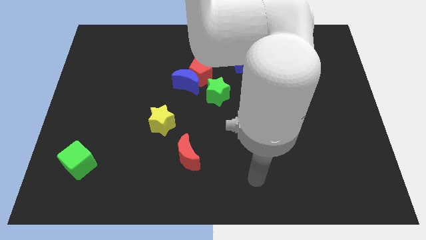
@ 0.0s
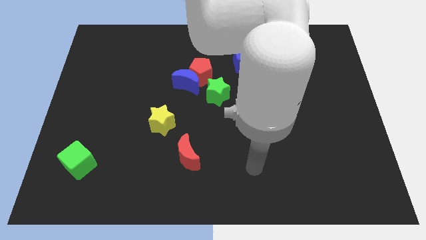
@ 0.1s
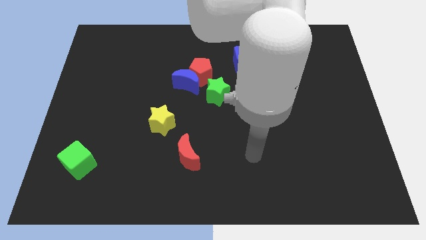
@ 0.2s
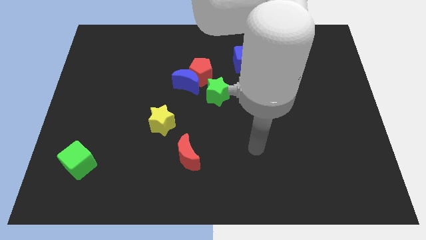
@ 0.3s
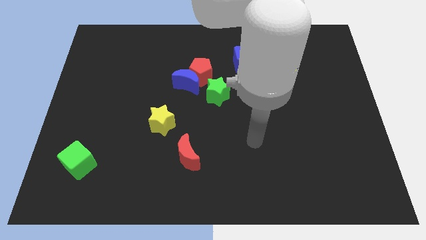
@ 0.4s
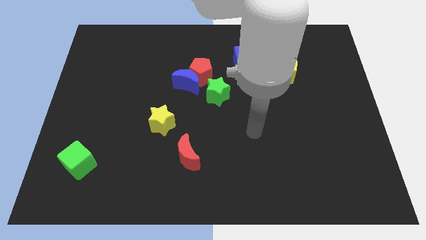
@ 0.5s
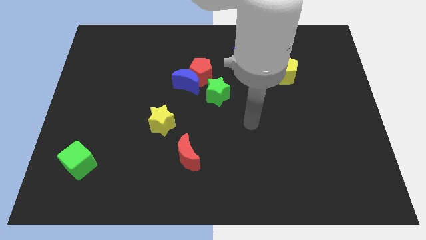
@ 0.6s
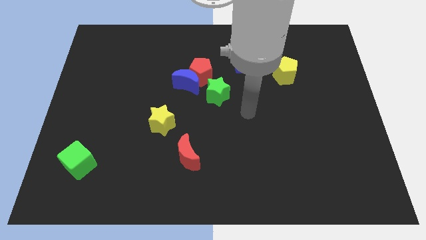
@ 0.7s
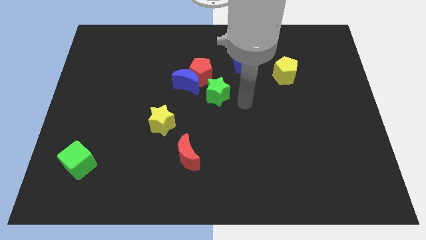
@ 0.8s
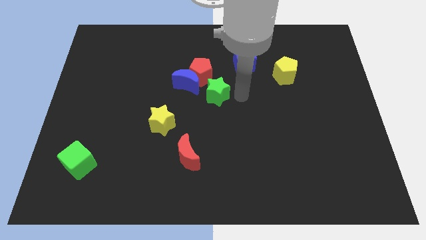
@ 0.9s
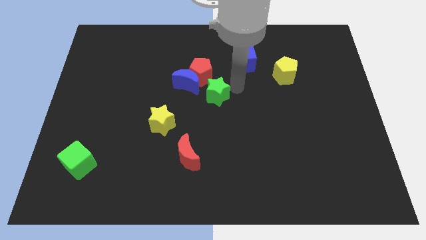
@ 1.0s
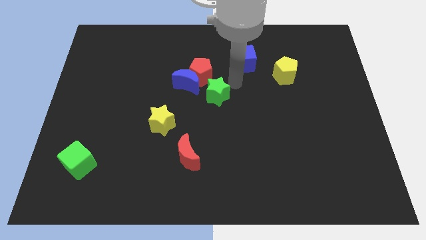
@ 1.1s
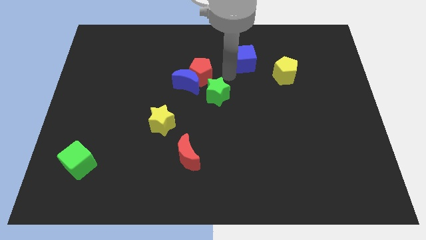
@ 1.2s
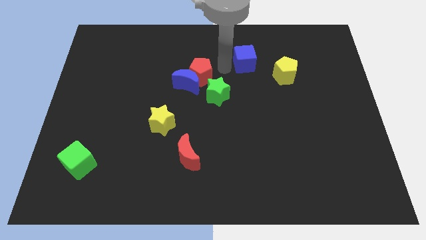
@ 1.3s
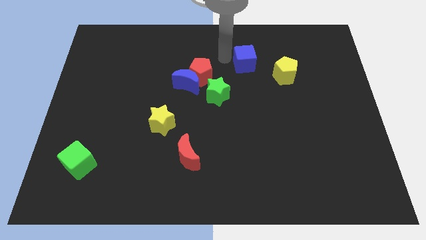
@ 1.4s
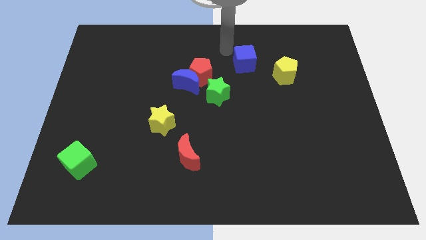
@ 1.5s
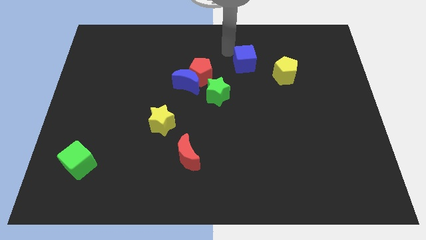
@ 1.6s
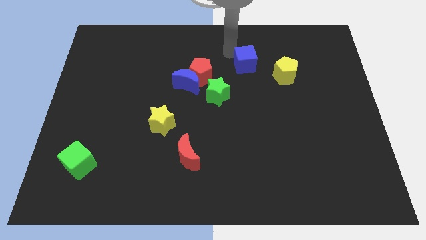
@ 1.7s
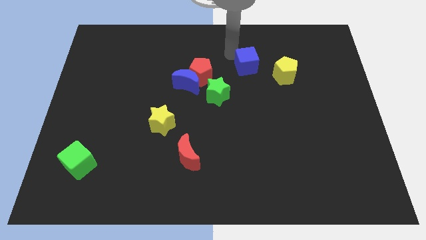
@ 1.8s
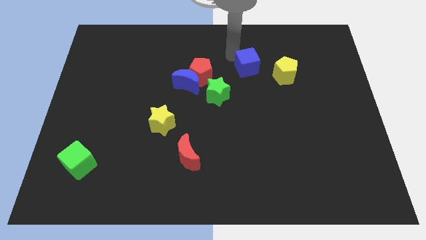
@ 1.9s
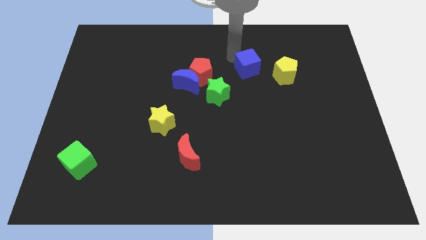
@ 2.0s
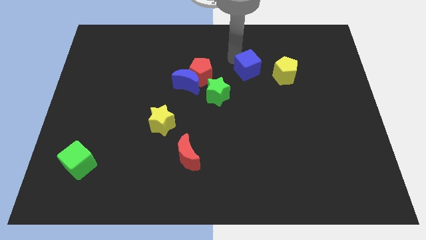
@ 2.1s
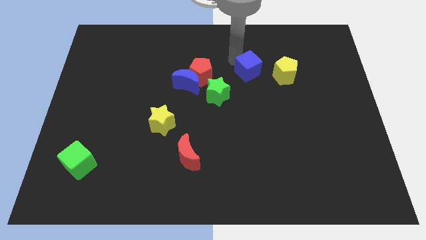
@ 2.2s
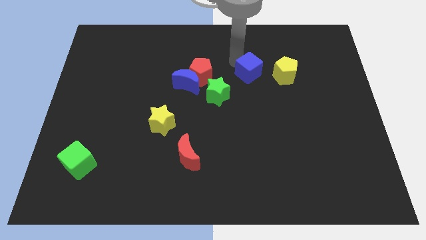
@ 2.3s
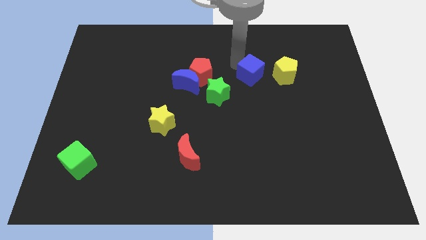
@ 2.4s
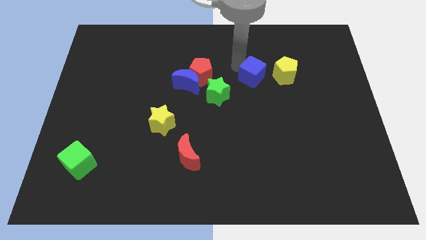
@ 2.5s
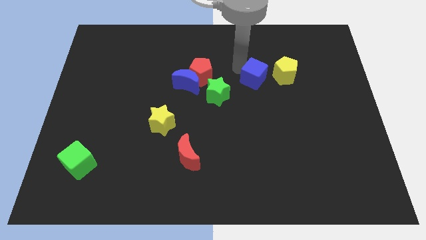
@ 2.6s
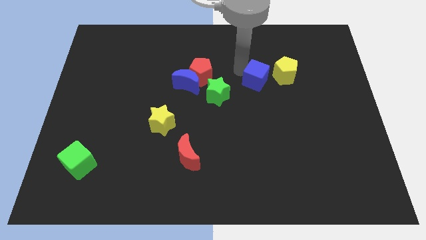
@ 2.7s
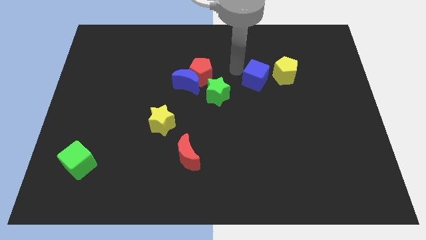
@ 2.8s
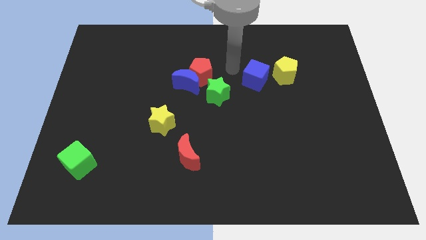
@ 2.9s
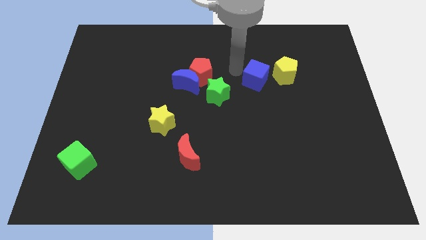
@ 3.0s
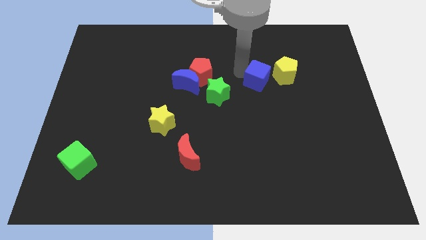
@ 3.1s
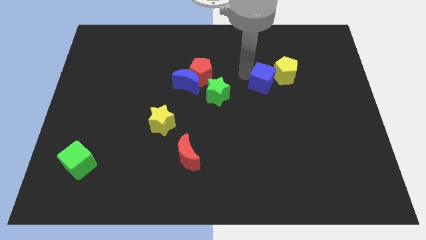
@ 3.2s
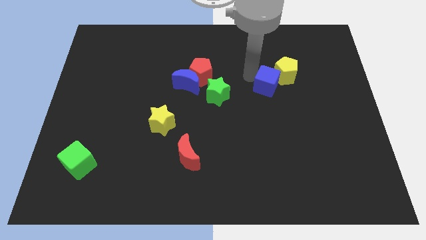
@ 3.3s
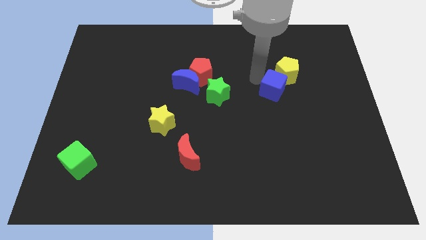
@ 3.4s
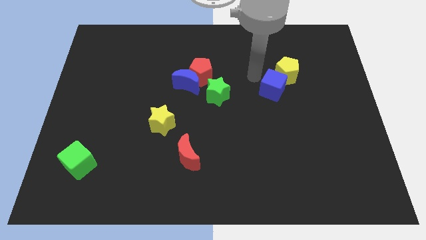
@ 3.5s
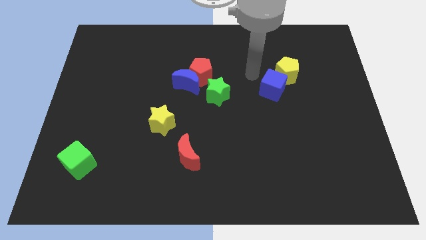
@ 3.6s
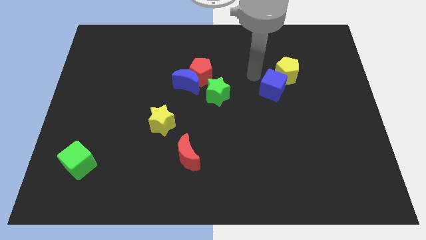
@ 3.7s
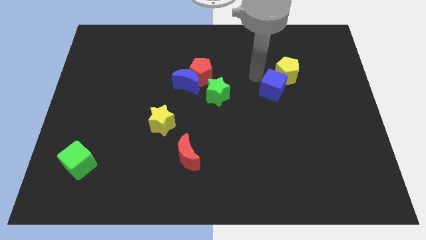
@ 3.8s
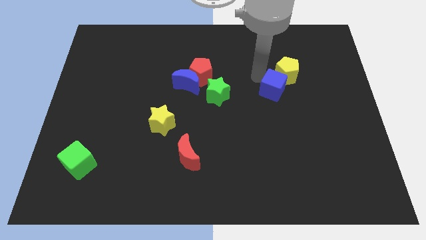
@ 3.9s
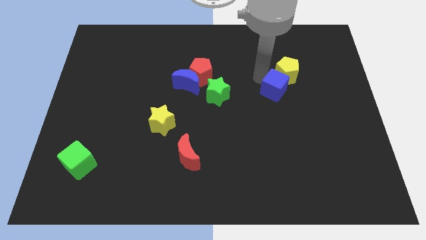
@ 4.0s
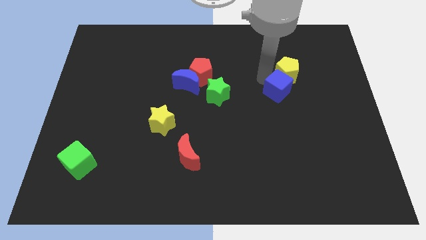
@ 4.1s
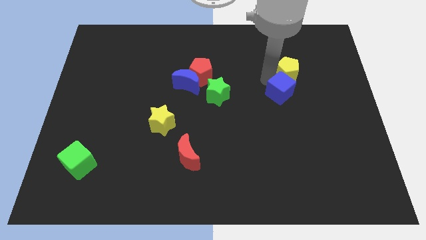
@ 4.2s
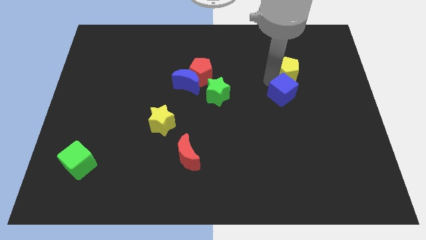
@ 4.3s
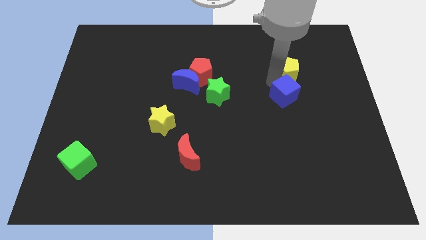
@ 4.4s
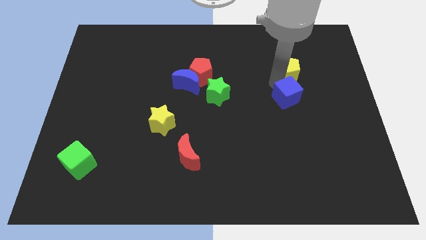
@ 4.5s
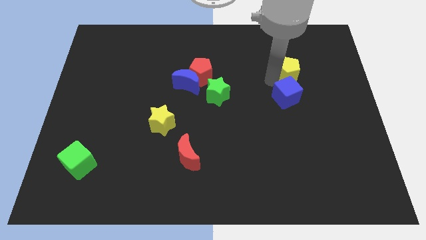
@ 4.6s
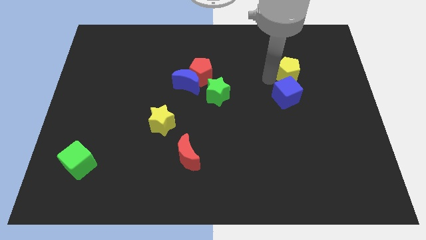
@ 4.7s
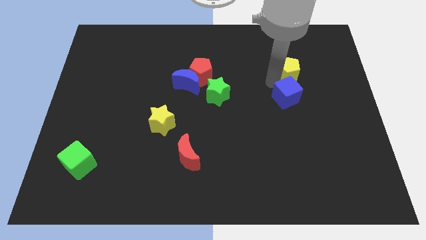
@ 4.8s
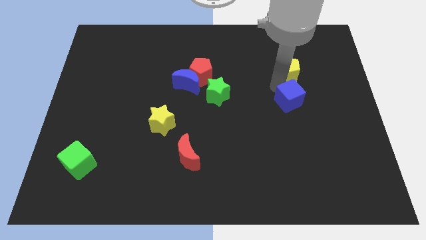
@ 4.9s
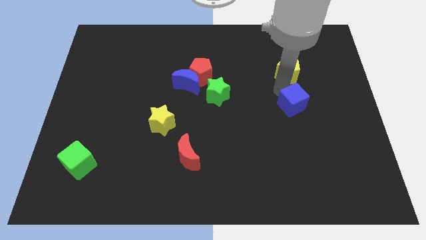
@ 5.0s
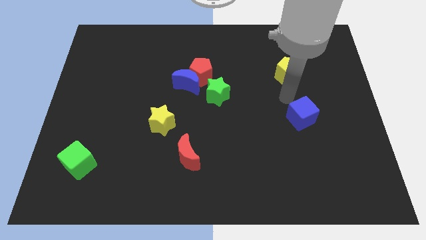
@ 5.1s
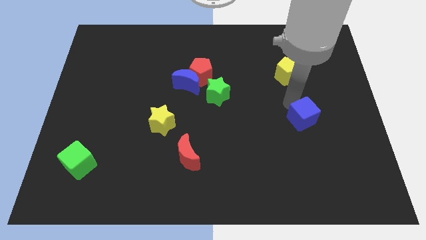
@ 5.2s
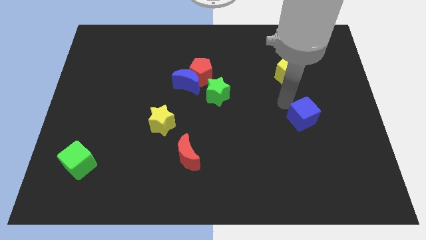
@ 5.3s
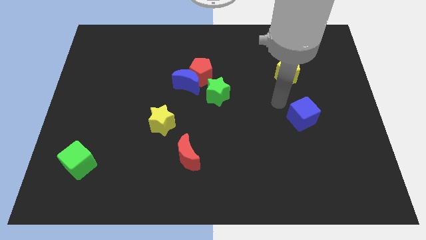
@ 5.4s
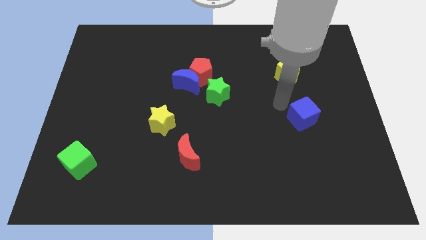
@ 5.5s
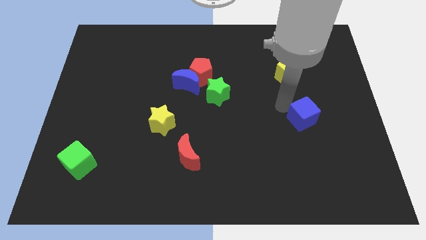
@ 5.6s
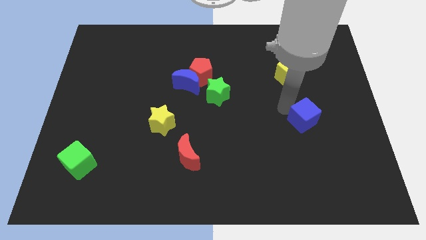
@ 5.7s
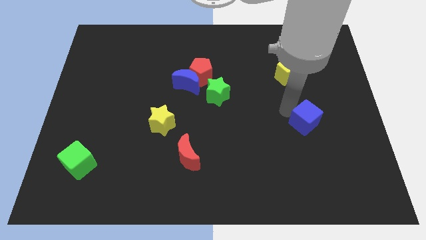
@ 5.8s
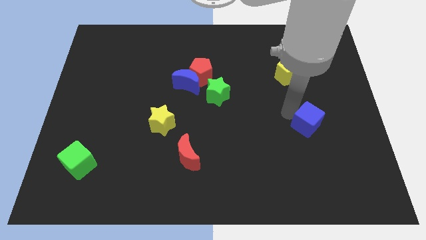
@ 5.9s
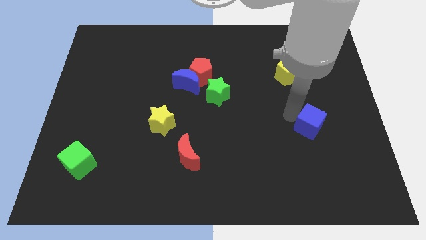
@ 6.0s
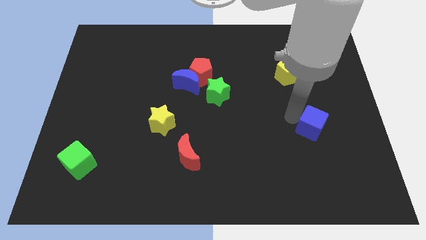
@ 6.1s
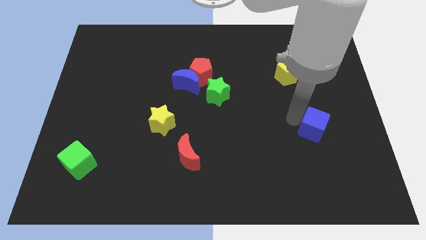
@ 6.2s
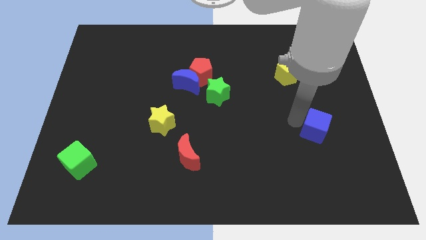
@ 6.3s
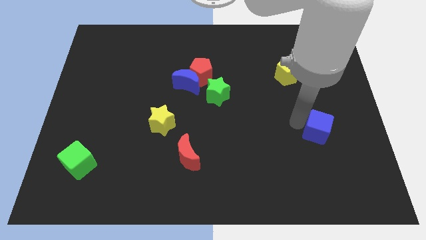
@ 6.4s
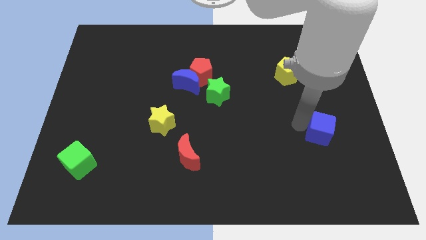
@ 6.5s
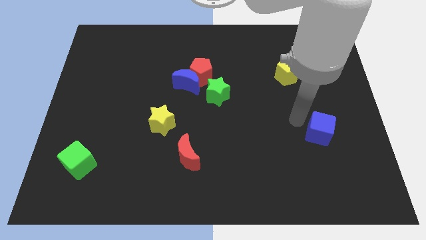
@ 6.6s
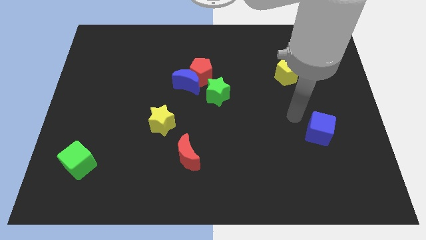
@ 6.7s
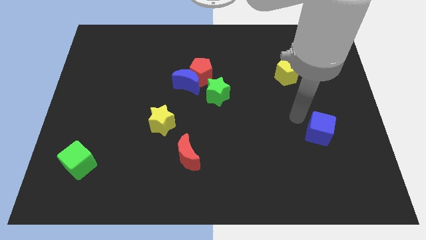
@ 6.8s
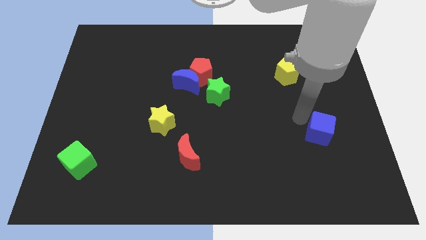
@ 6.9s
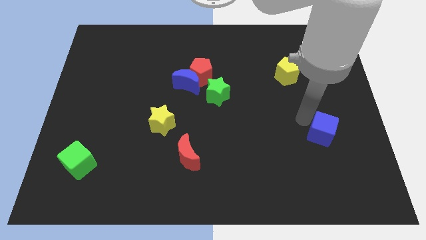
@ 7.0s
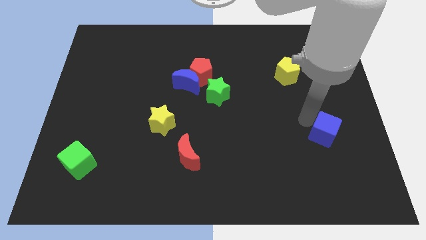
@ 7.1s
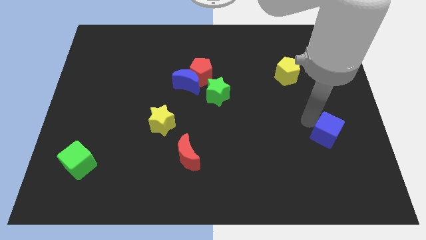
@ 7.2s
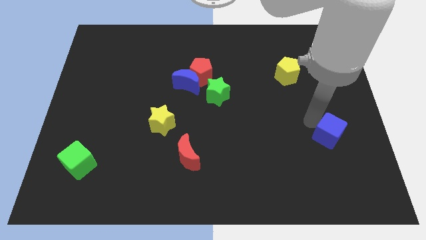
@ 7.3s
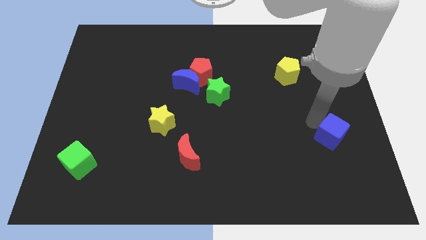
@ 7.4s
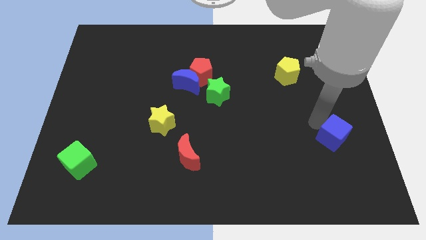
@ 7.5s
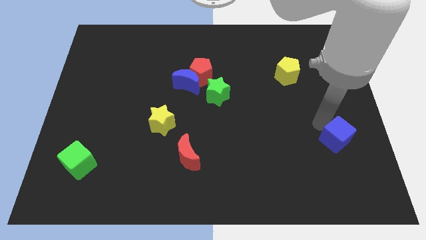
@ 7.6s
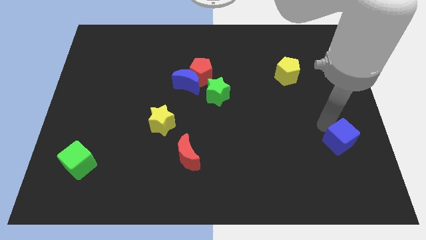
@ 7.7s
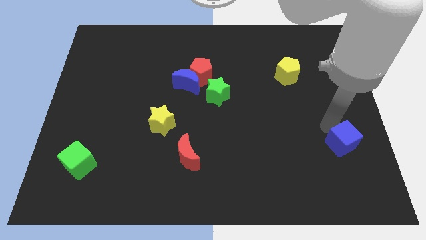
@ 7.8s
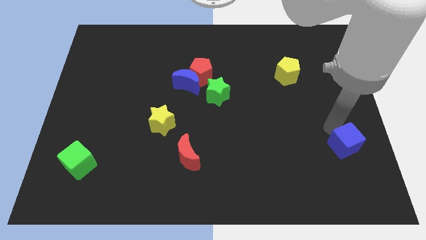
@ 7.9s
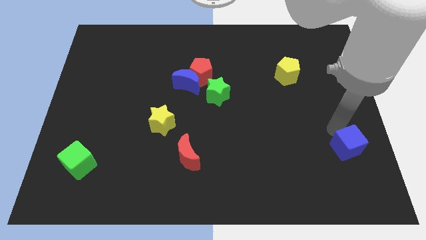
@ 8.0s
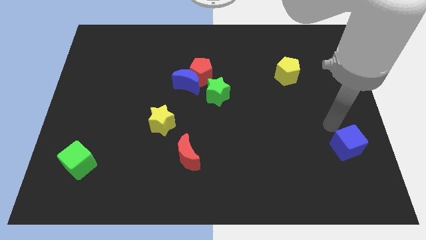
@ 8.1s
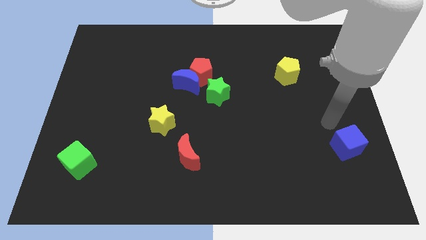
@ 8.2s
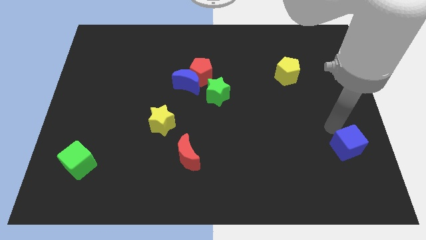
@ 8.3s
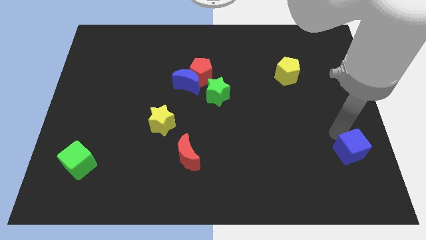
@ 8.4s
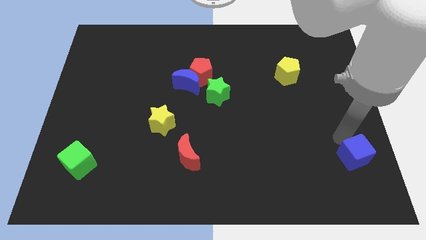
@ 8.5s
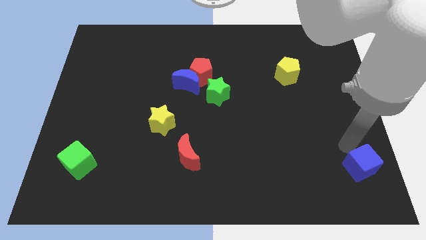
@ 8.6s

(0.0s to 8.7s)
move the blue cube to the bottom right
